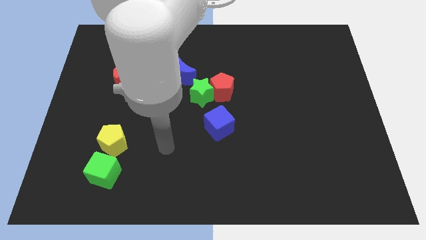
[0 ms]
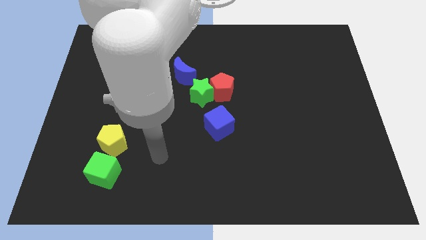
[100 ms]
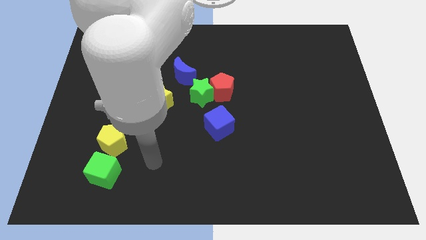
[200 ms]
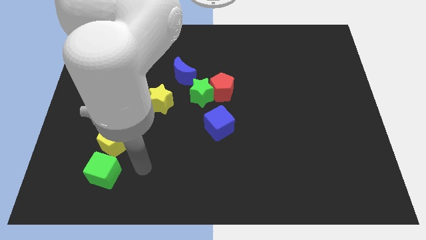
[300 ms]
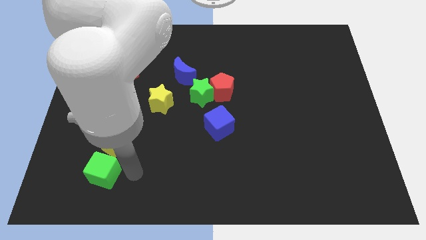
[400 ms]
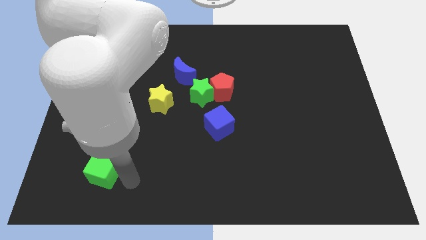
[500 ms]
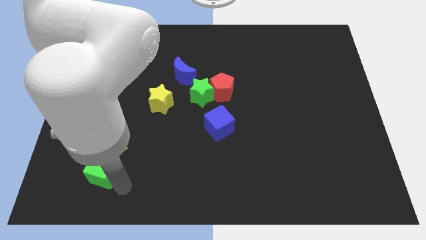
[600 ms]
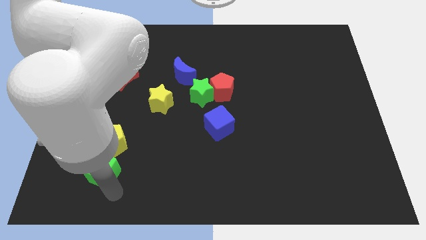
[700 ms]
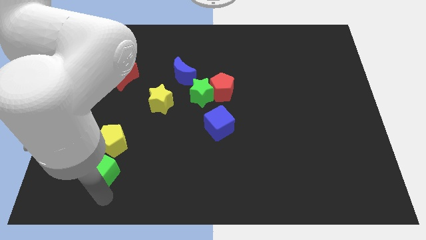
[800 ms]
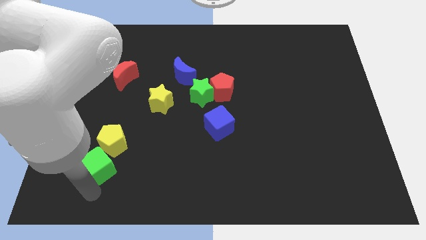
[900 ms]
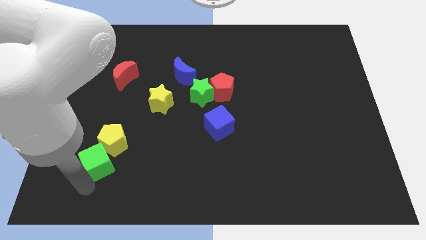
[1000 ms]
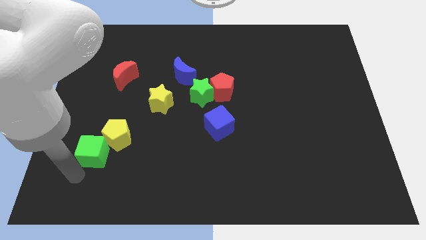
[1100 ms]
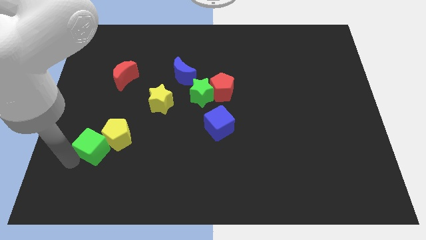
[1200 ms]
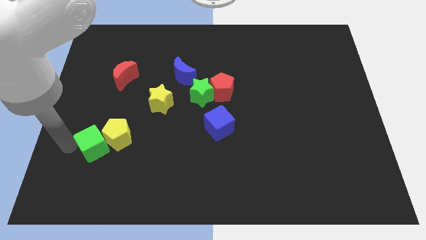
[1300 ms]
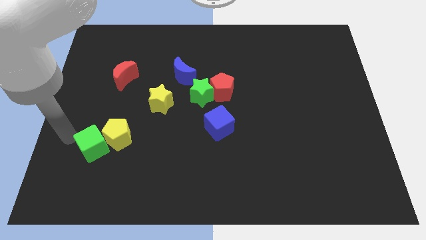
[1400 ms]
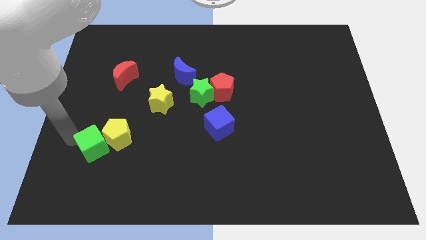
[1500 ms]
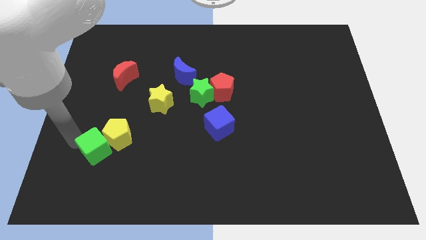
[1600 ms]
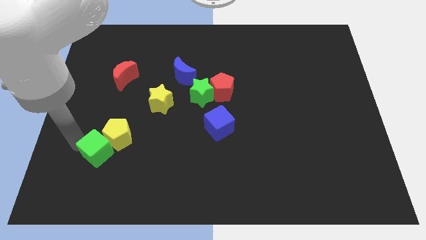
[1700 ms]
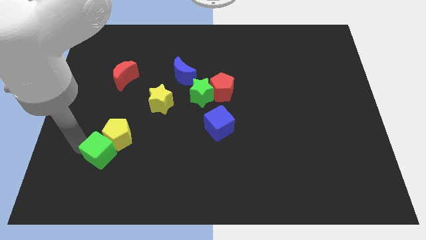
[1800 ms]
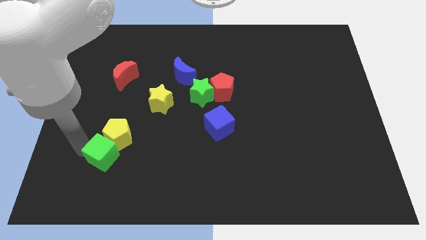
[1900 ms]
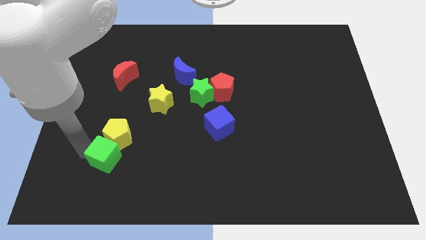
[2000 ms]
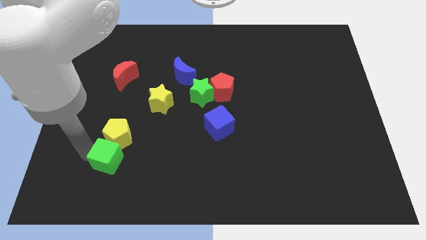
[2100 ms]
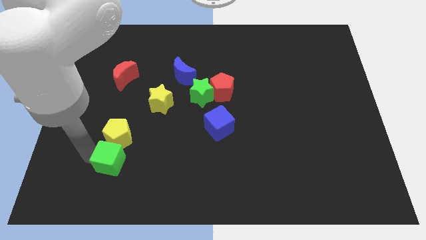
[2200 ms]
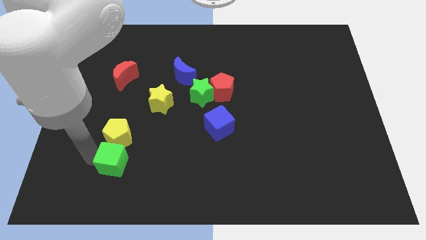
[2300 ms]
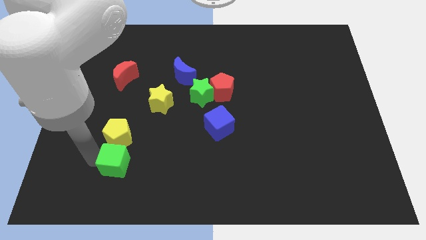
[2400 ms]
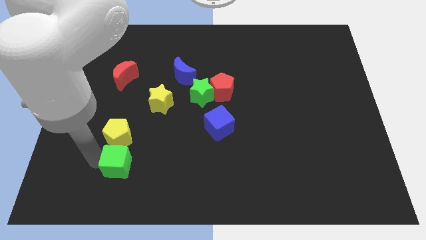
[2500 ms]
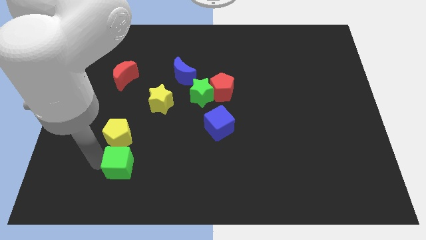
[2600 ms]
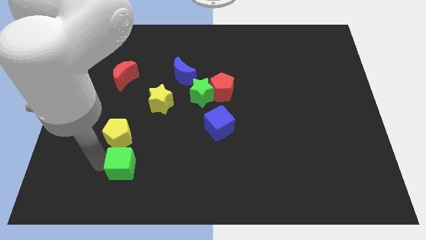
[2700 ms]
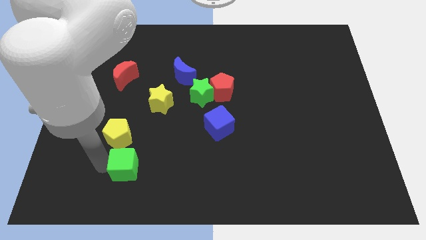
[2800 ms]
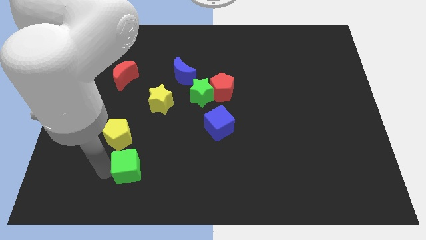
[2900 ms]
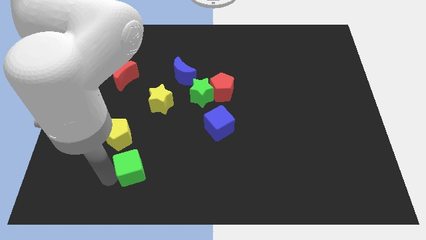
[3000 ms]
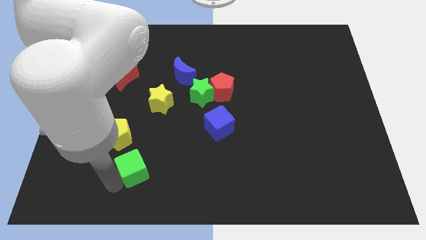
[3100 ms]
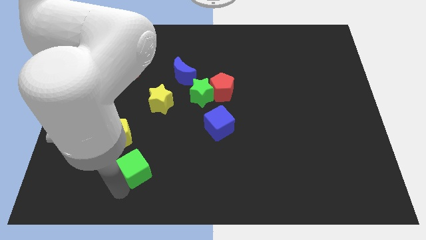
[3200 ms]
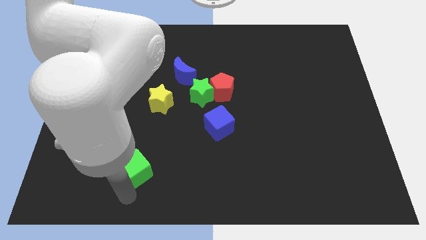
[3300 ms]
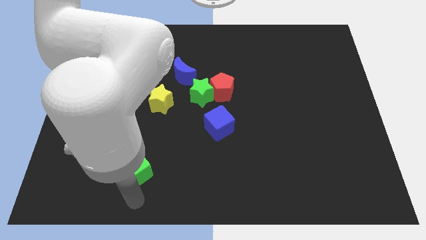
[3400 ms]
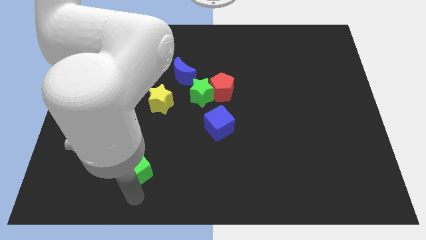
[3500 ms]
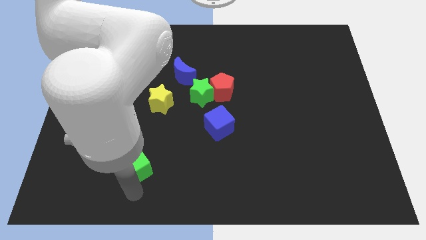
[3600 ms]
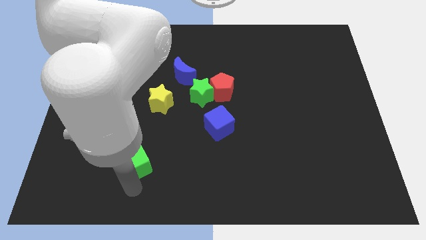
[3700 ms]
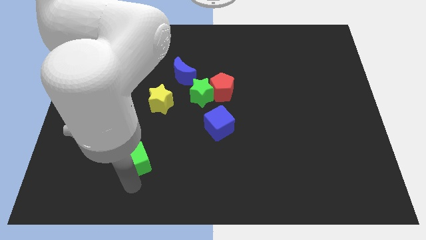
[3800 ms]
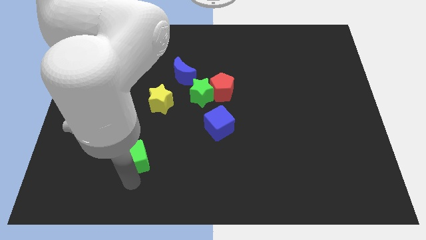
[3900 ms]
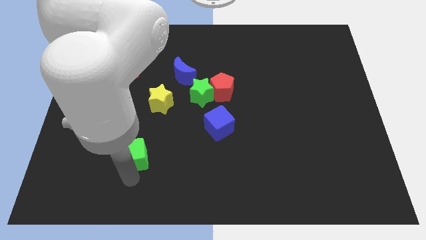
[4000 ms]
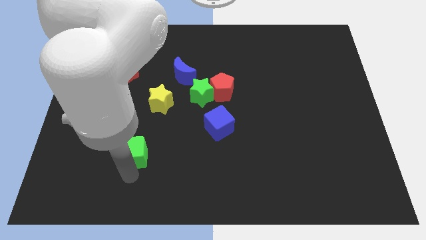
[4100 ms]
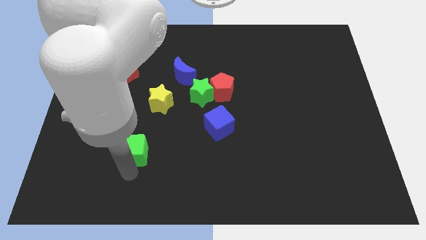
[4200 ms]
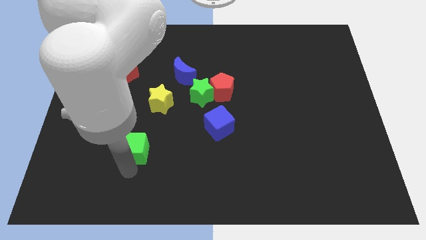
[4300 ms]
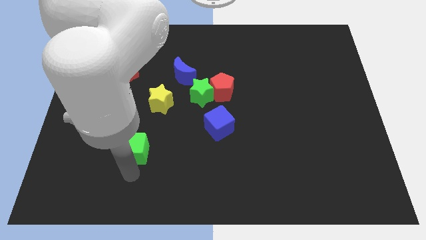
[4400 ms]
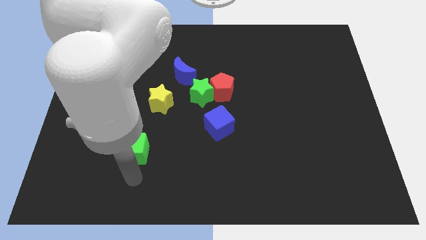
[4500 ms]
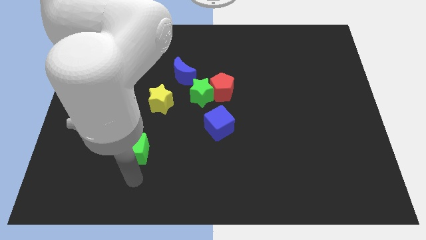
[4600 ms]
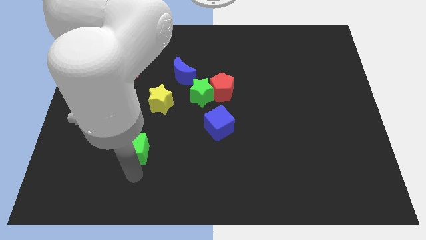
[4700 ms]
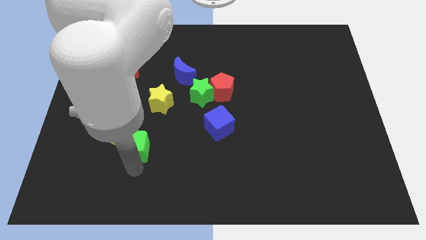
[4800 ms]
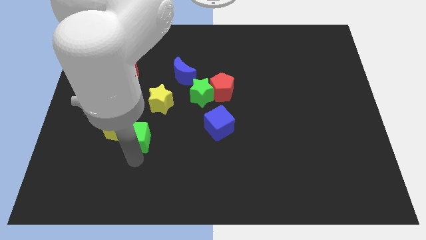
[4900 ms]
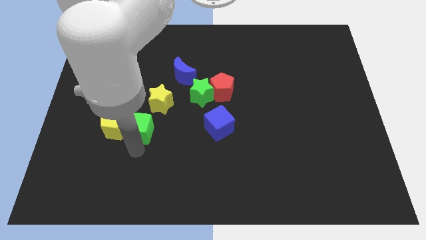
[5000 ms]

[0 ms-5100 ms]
push the green cube to the top right side of the yellow pentagon

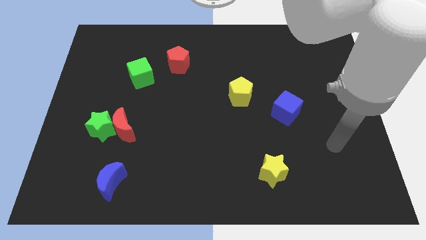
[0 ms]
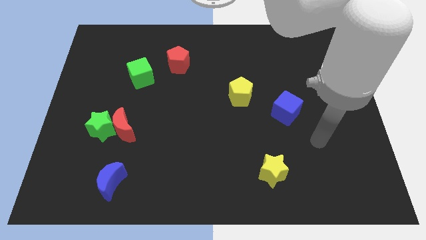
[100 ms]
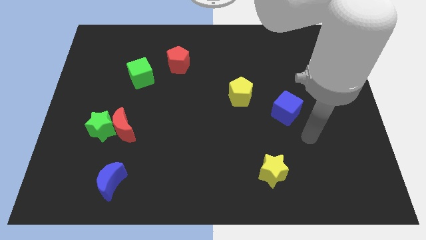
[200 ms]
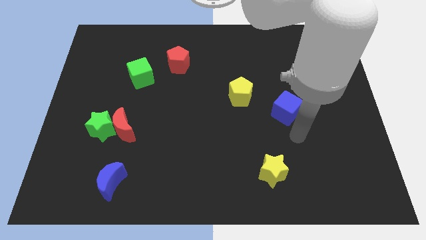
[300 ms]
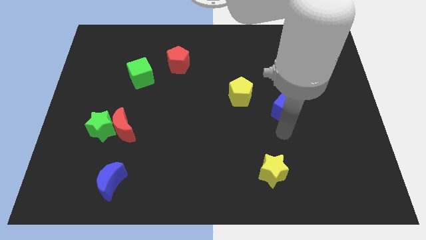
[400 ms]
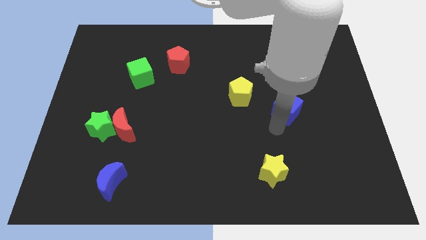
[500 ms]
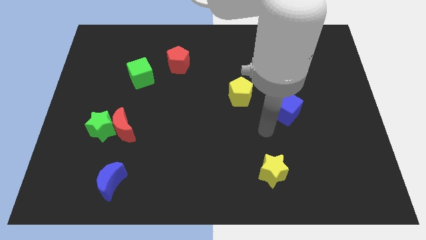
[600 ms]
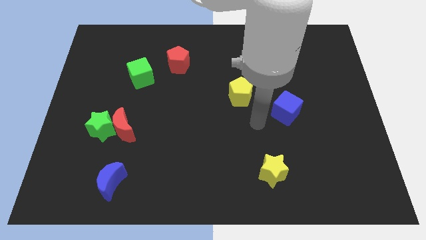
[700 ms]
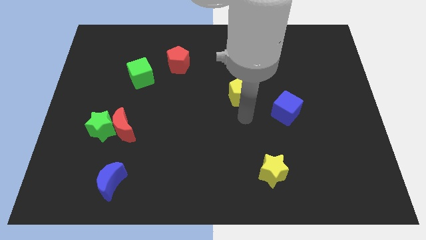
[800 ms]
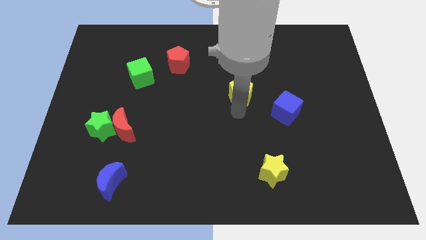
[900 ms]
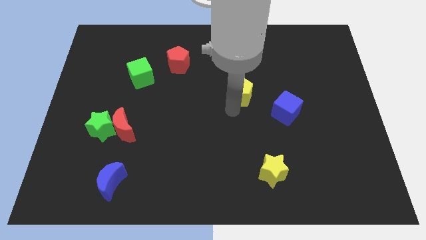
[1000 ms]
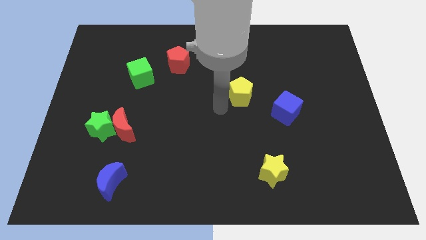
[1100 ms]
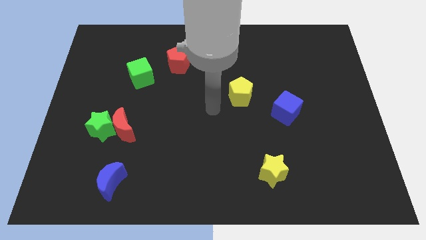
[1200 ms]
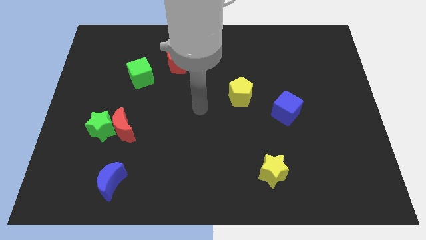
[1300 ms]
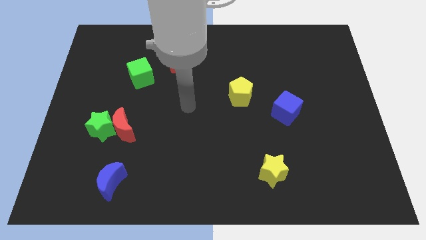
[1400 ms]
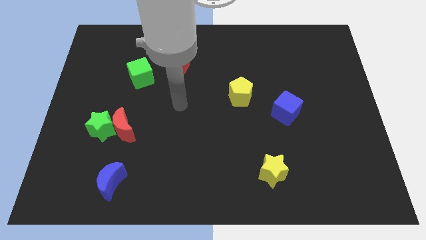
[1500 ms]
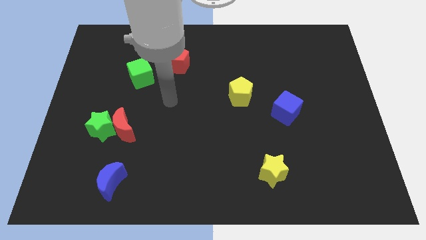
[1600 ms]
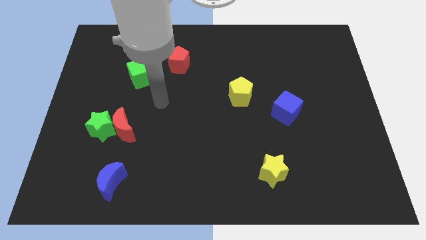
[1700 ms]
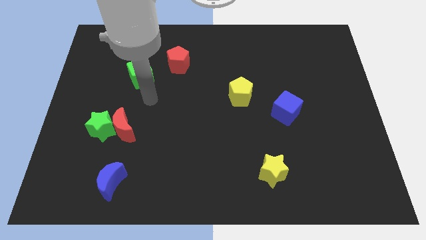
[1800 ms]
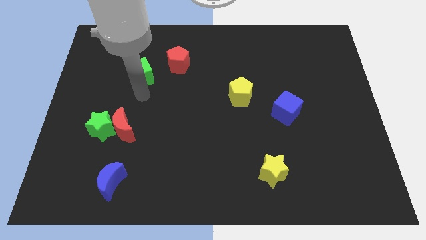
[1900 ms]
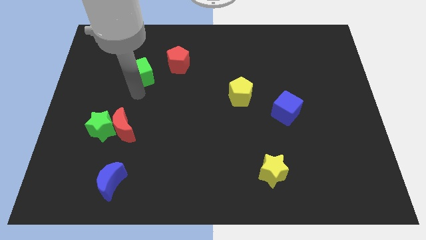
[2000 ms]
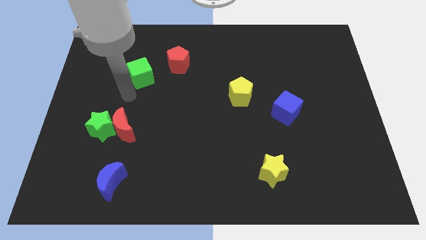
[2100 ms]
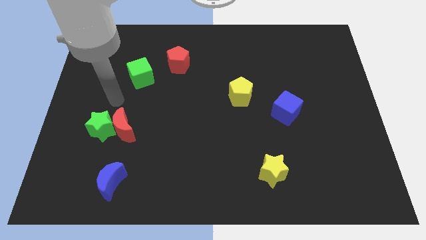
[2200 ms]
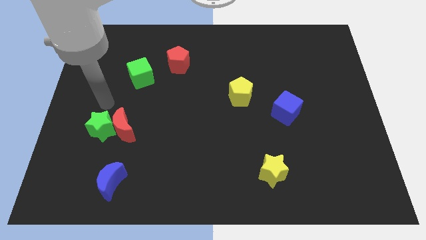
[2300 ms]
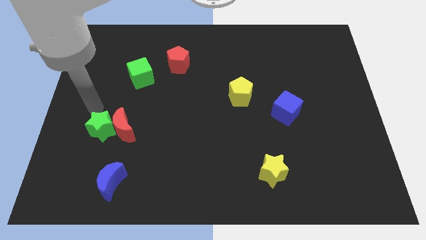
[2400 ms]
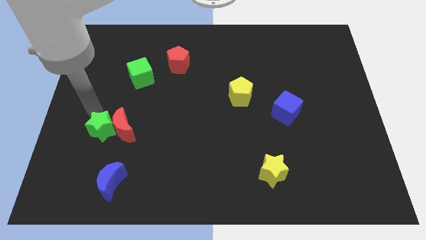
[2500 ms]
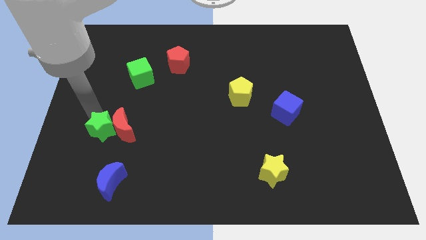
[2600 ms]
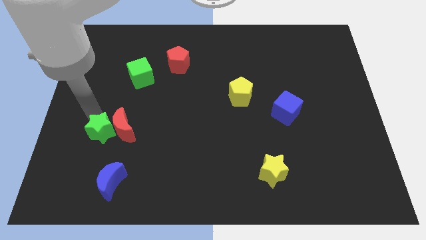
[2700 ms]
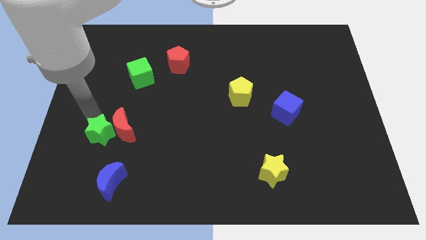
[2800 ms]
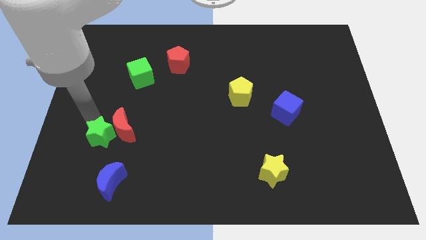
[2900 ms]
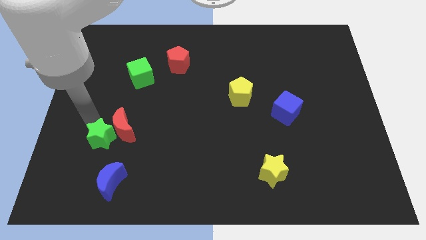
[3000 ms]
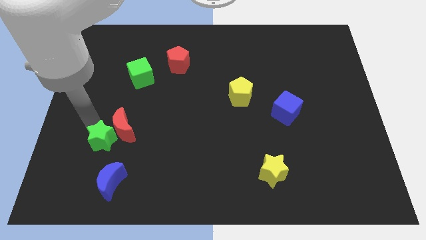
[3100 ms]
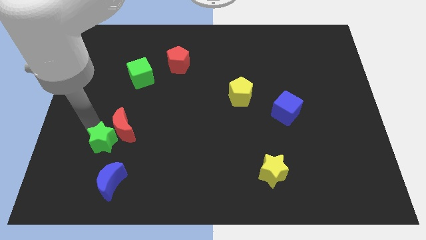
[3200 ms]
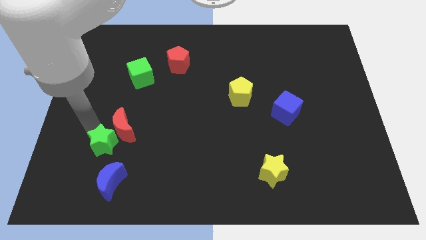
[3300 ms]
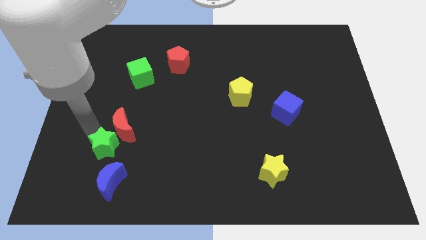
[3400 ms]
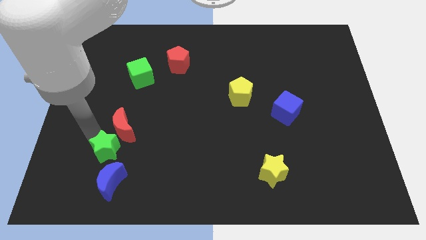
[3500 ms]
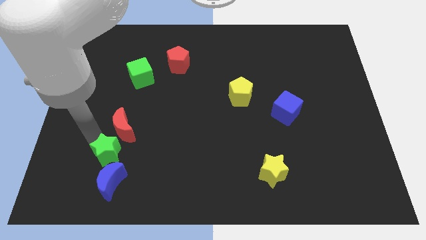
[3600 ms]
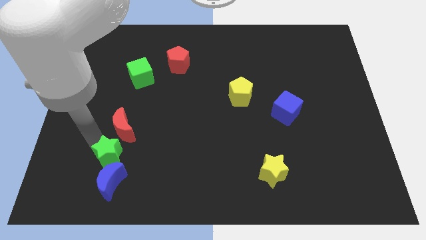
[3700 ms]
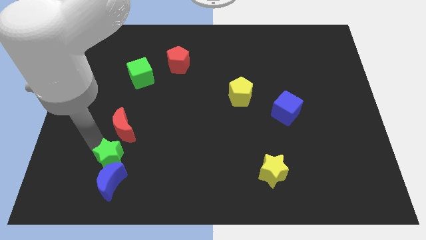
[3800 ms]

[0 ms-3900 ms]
move the green star to the top right side of the blue moon
